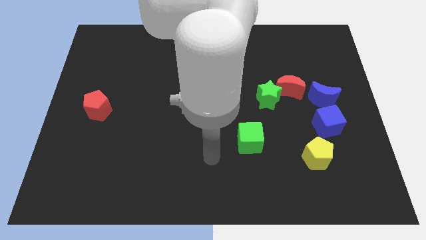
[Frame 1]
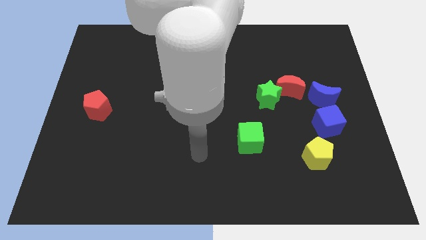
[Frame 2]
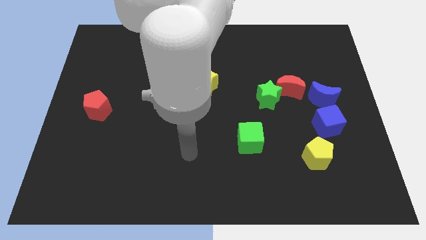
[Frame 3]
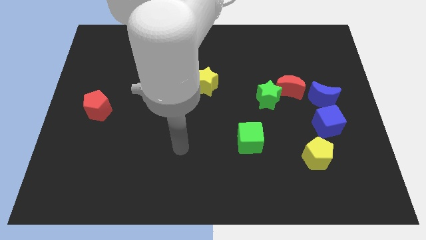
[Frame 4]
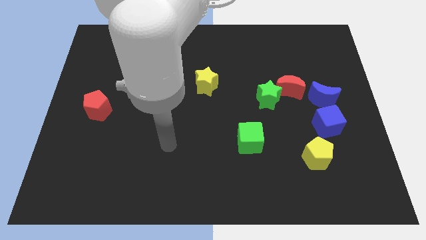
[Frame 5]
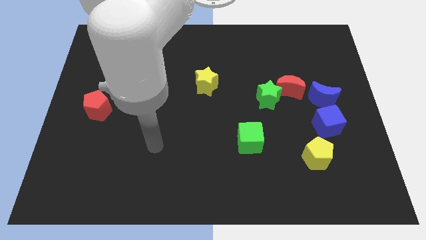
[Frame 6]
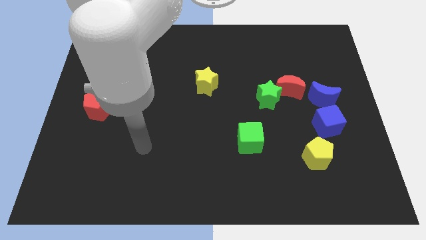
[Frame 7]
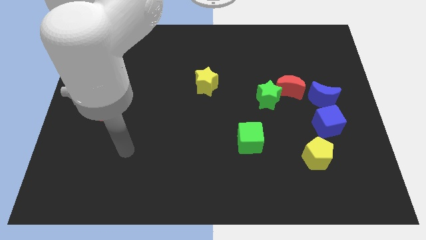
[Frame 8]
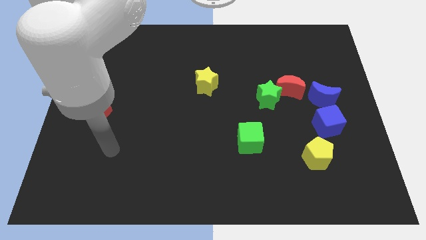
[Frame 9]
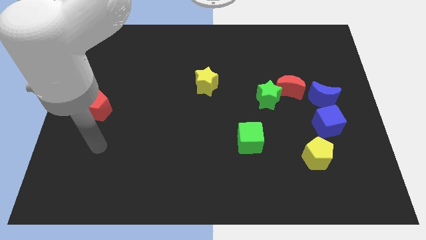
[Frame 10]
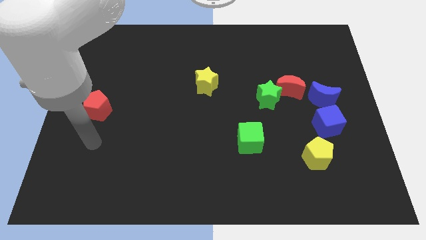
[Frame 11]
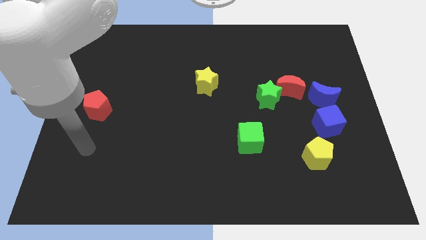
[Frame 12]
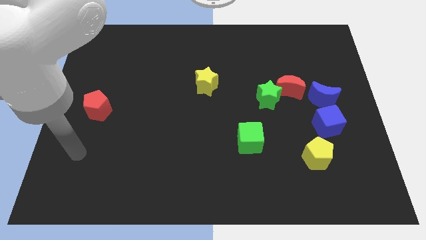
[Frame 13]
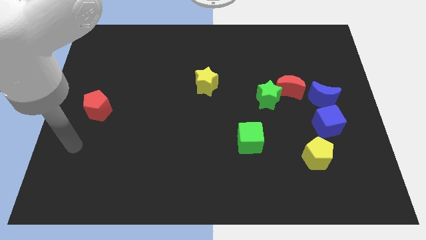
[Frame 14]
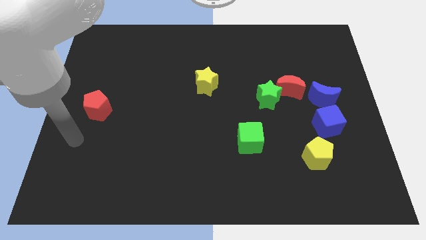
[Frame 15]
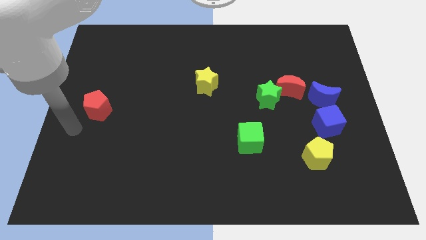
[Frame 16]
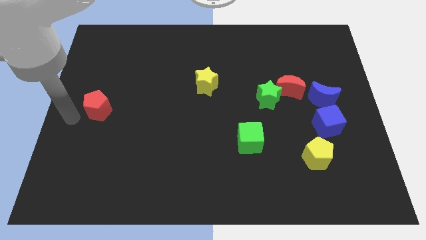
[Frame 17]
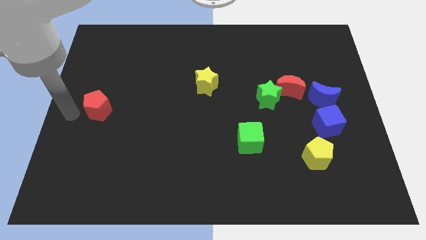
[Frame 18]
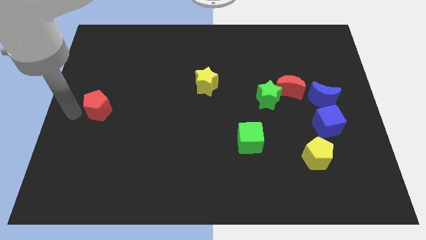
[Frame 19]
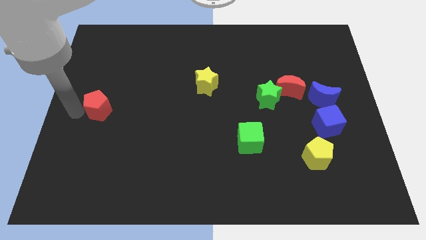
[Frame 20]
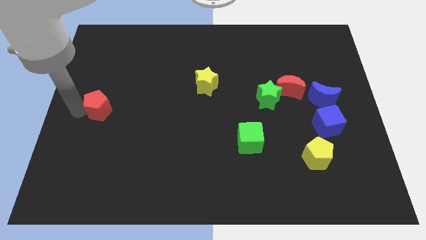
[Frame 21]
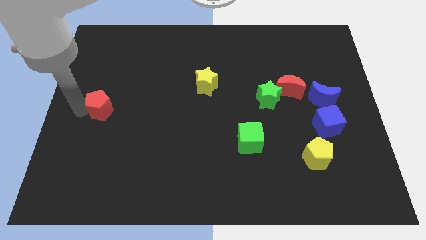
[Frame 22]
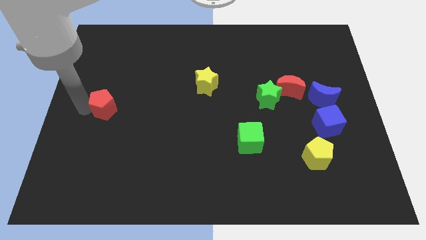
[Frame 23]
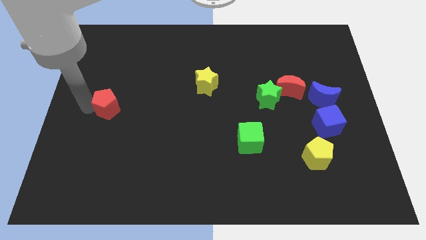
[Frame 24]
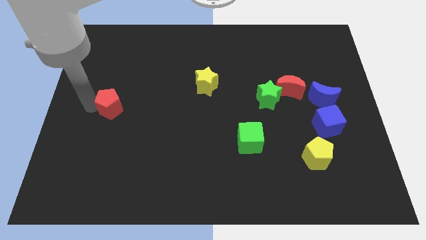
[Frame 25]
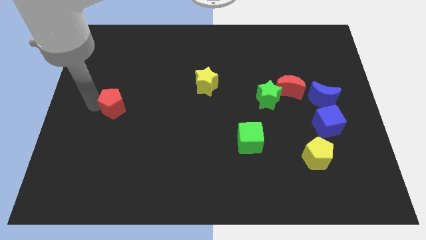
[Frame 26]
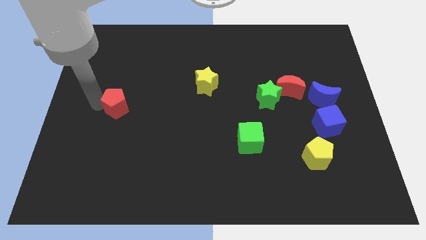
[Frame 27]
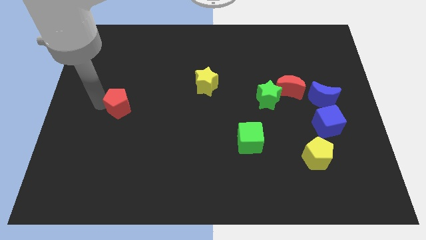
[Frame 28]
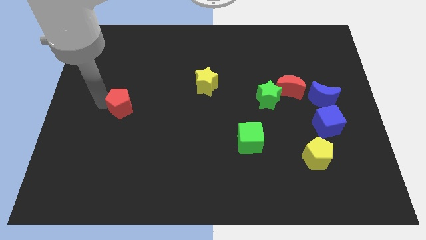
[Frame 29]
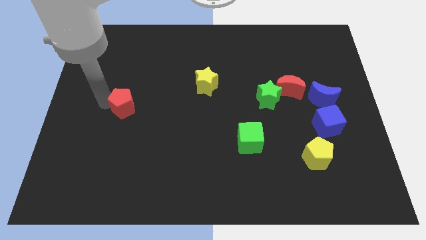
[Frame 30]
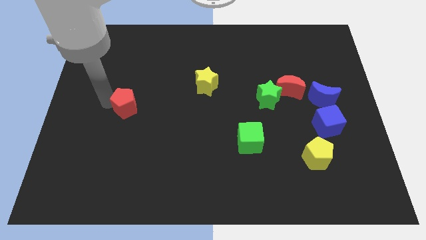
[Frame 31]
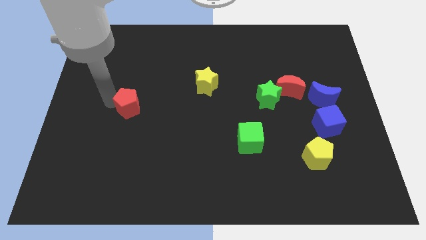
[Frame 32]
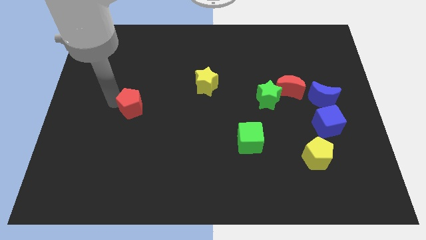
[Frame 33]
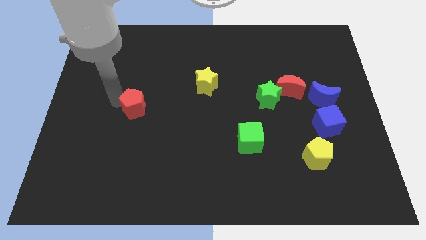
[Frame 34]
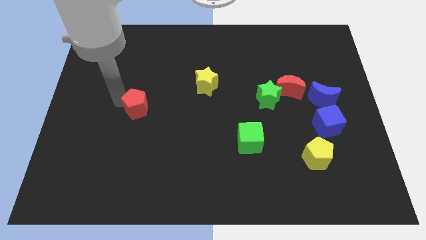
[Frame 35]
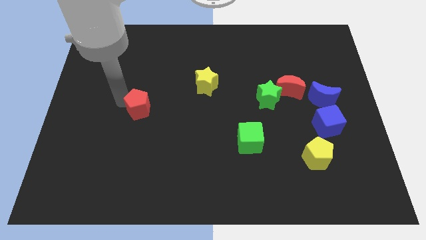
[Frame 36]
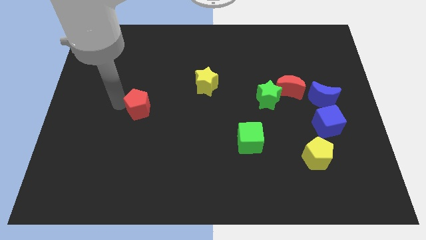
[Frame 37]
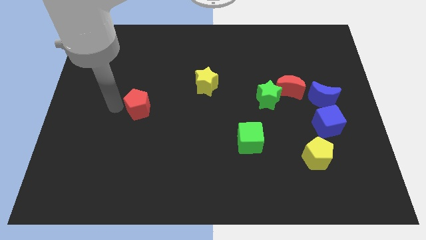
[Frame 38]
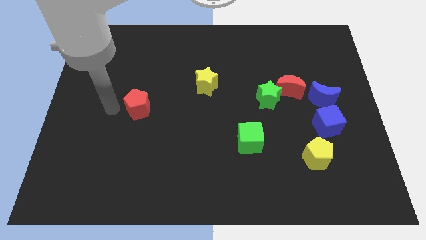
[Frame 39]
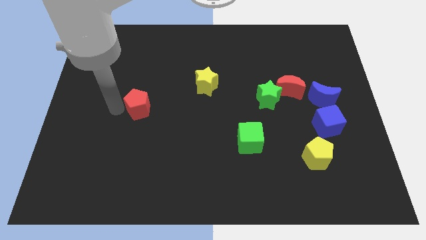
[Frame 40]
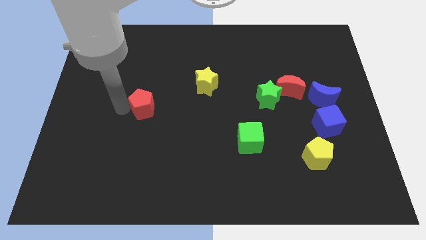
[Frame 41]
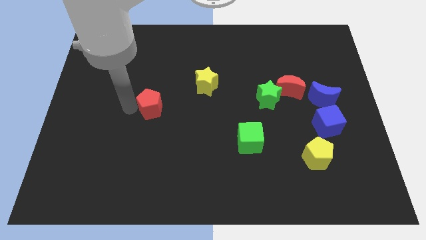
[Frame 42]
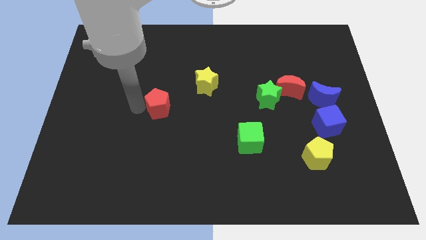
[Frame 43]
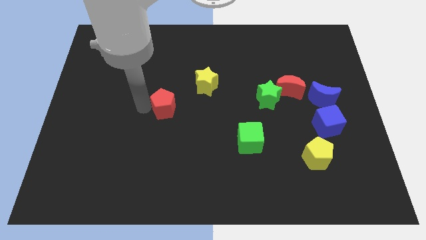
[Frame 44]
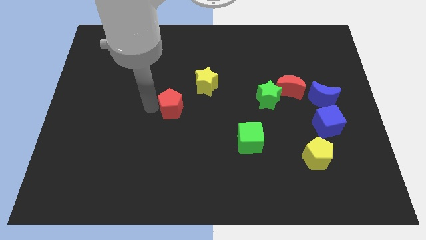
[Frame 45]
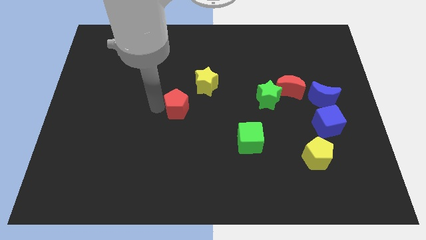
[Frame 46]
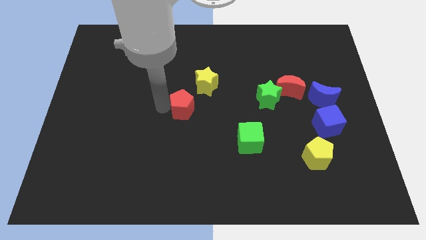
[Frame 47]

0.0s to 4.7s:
push the red pentagon right

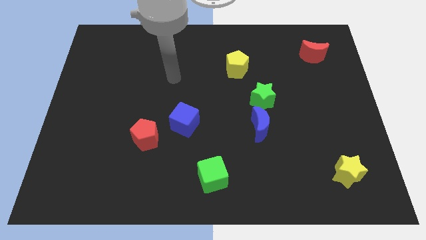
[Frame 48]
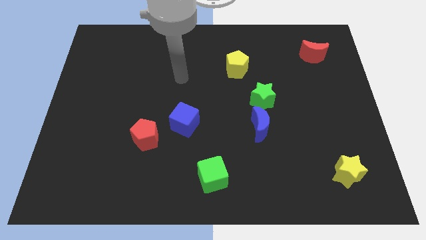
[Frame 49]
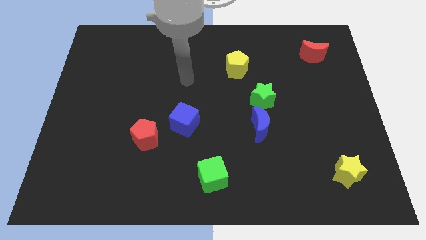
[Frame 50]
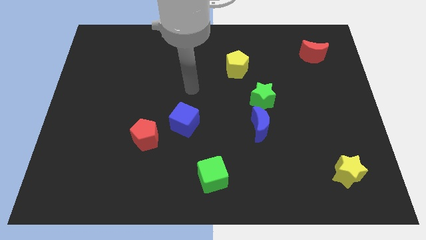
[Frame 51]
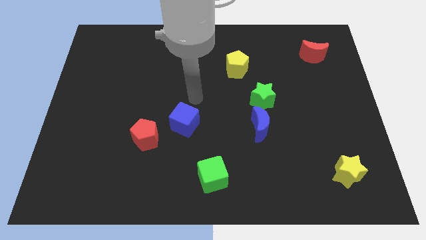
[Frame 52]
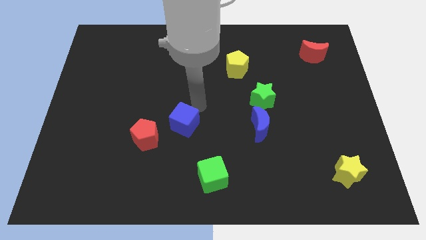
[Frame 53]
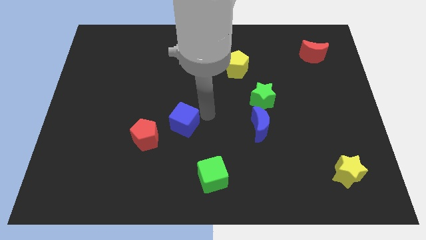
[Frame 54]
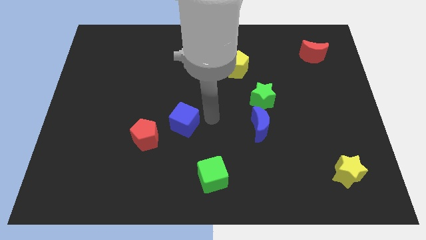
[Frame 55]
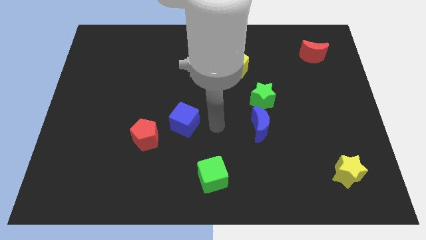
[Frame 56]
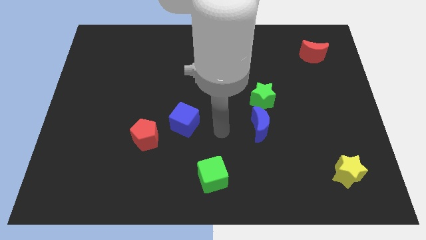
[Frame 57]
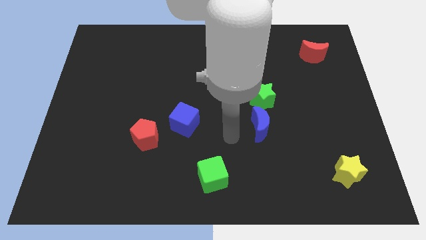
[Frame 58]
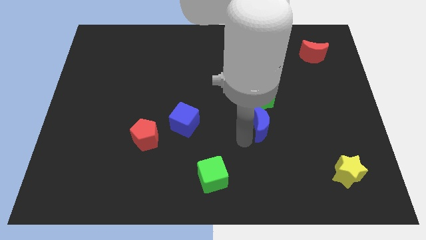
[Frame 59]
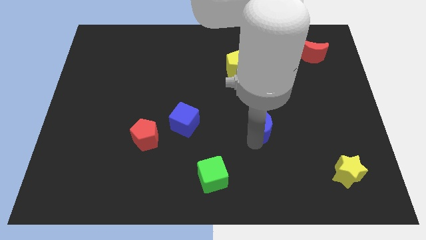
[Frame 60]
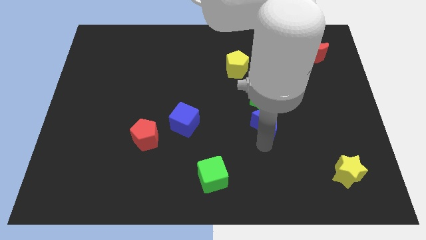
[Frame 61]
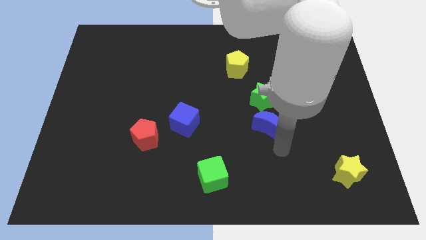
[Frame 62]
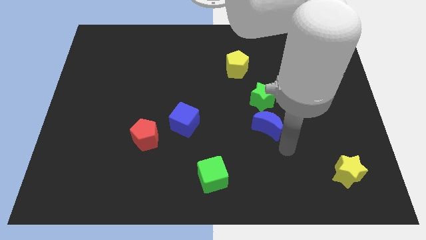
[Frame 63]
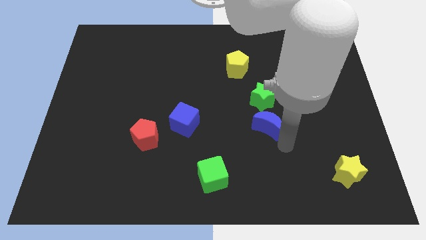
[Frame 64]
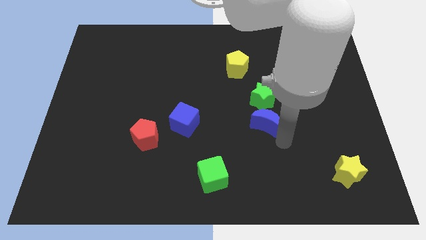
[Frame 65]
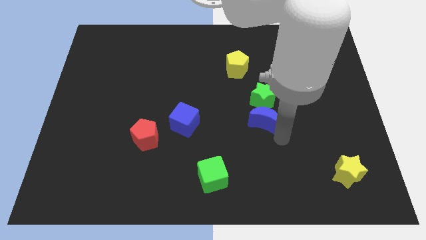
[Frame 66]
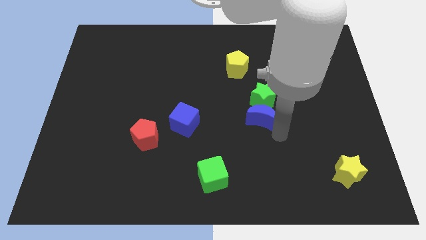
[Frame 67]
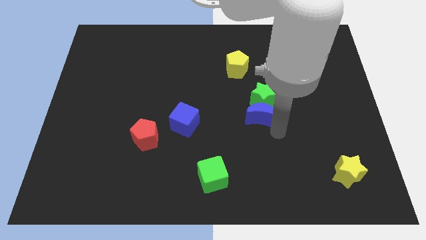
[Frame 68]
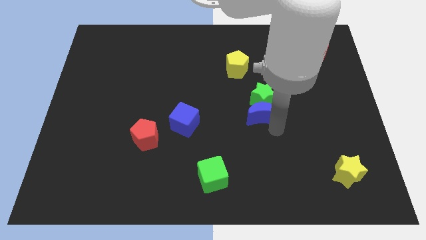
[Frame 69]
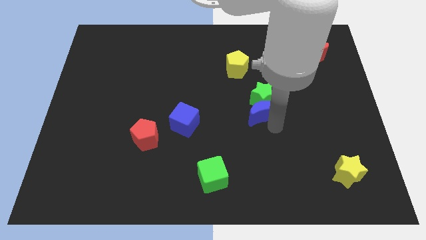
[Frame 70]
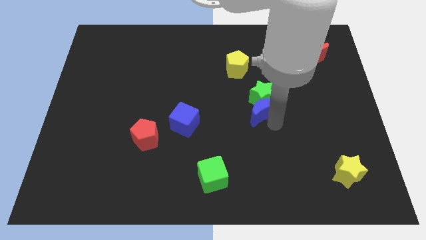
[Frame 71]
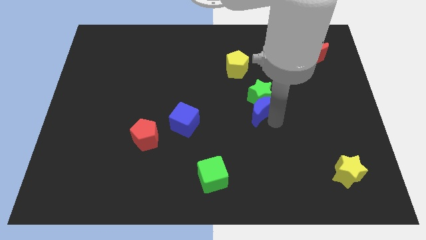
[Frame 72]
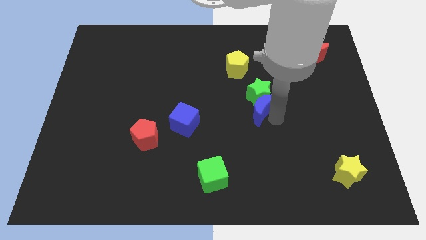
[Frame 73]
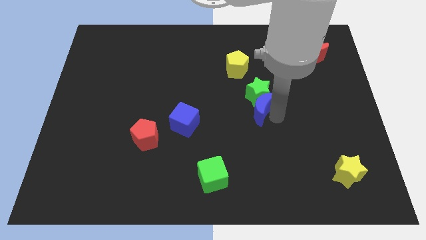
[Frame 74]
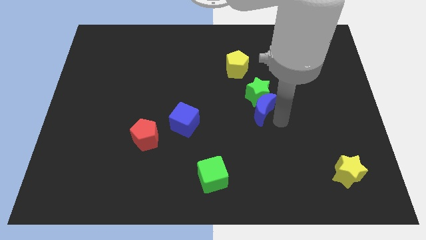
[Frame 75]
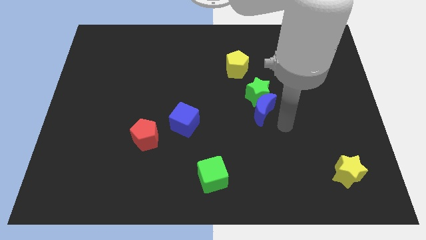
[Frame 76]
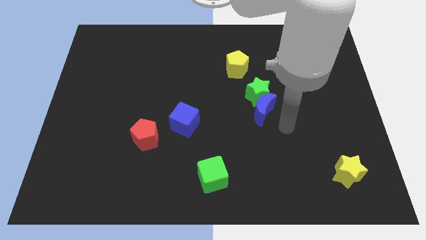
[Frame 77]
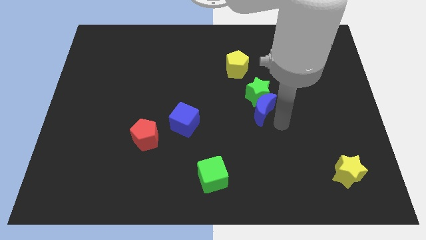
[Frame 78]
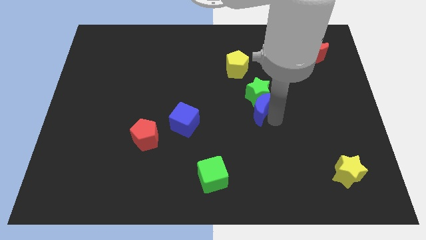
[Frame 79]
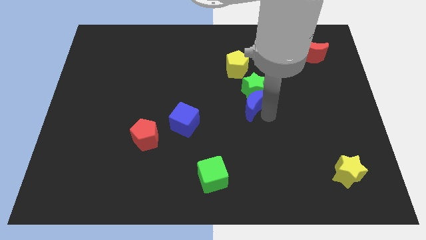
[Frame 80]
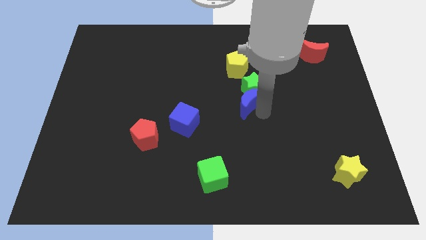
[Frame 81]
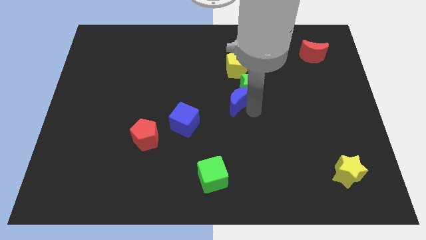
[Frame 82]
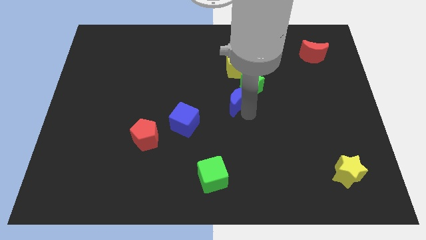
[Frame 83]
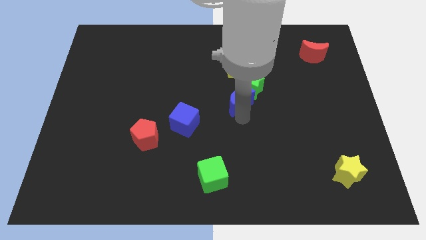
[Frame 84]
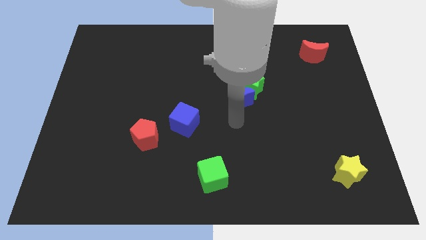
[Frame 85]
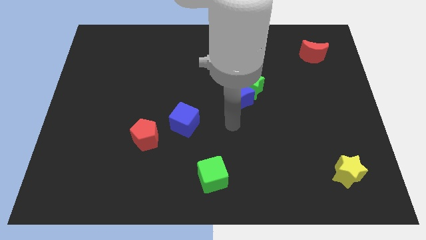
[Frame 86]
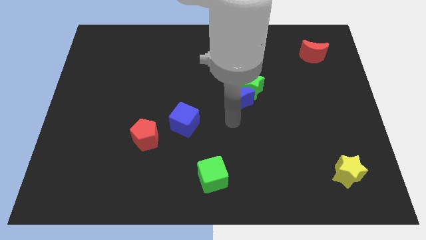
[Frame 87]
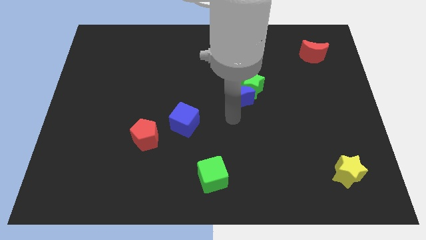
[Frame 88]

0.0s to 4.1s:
push the blue moon up a bit
